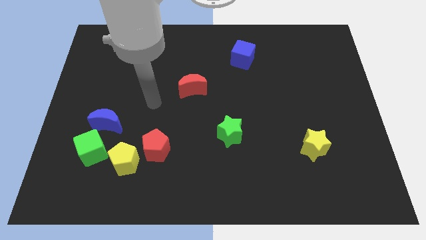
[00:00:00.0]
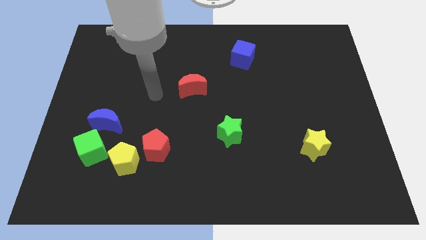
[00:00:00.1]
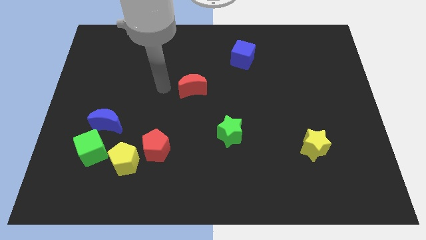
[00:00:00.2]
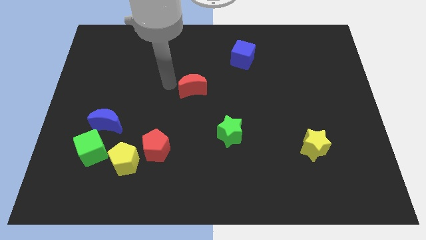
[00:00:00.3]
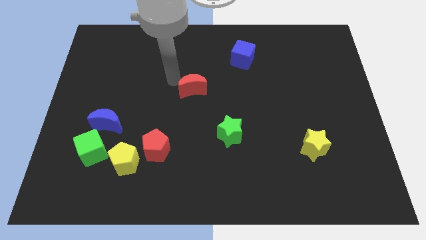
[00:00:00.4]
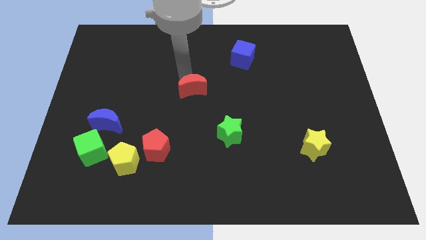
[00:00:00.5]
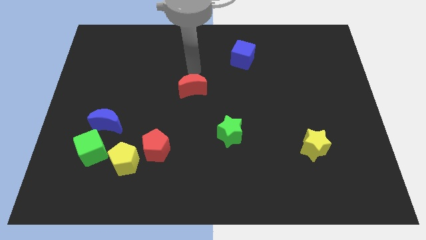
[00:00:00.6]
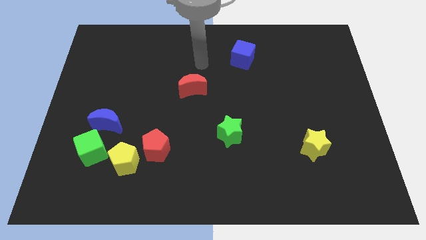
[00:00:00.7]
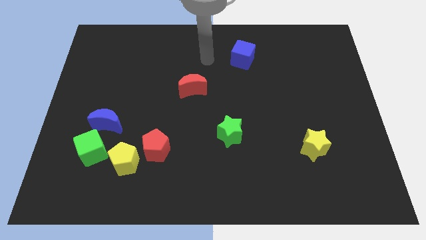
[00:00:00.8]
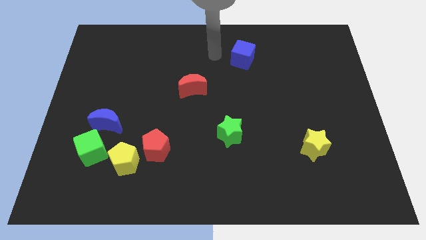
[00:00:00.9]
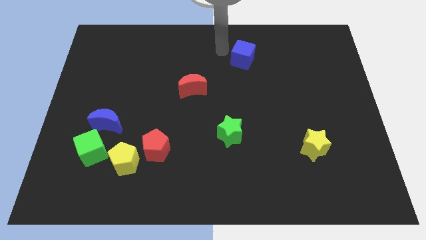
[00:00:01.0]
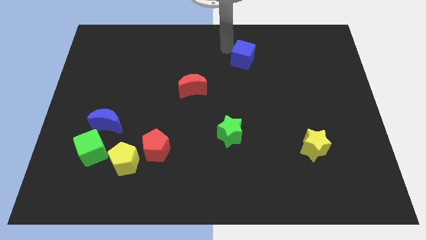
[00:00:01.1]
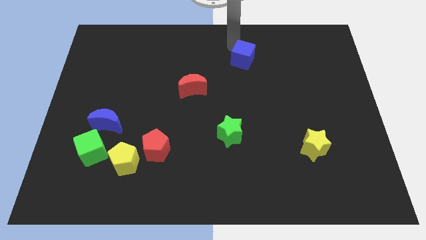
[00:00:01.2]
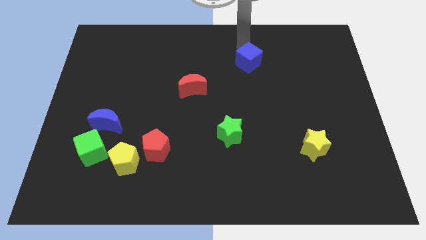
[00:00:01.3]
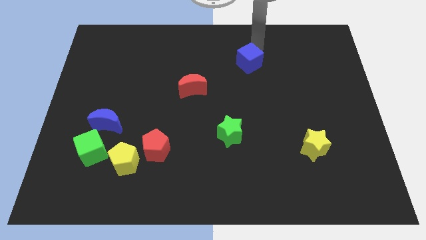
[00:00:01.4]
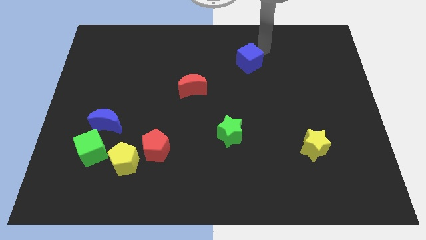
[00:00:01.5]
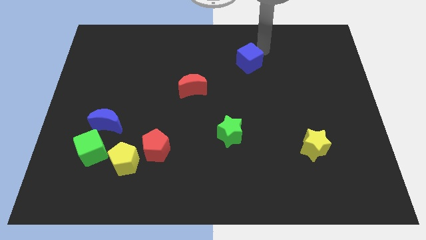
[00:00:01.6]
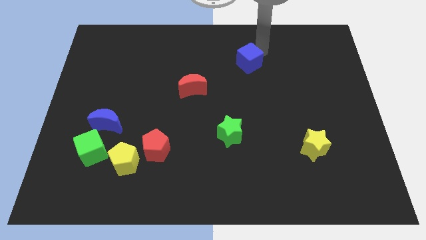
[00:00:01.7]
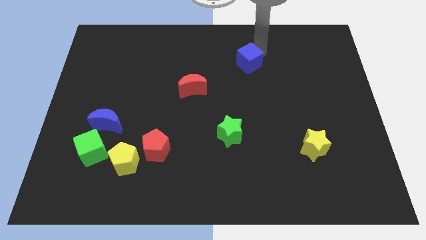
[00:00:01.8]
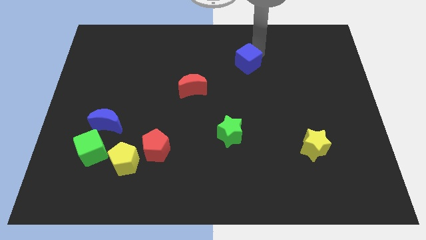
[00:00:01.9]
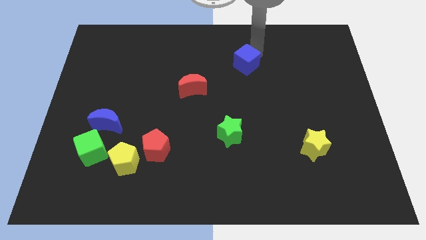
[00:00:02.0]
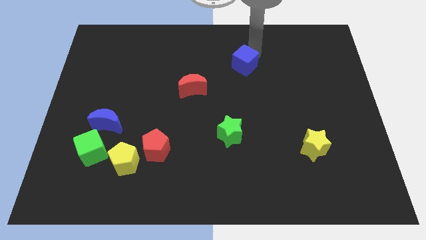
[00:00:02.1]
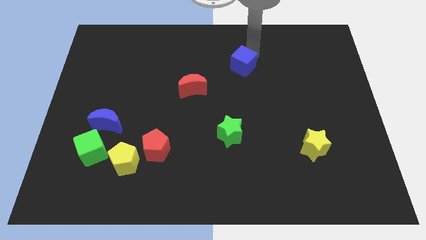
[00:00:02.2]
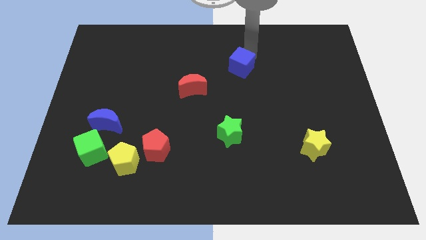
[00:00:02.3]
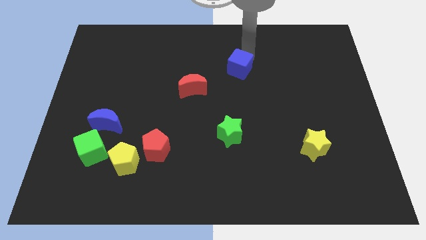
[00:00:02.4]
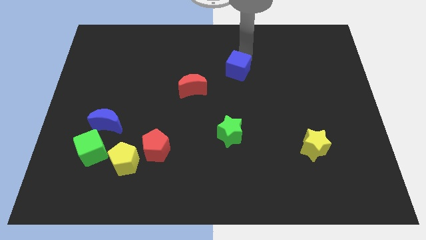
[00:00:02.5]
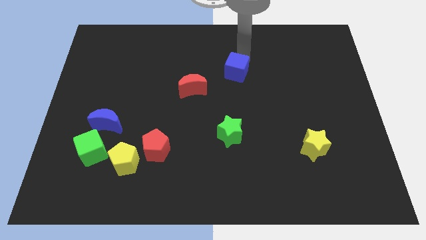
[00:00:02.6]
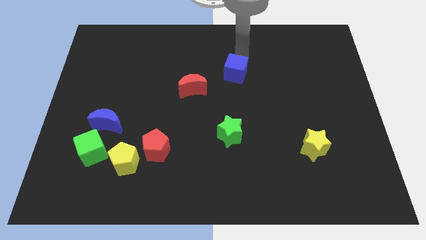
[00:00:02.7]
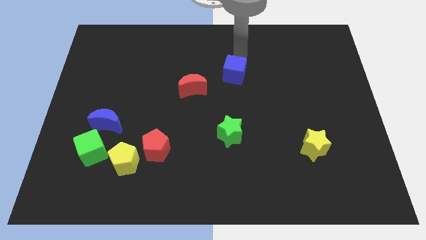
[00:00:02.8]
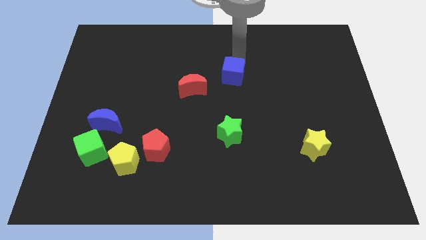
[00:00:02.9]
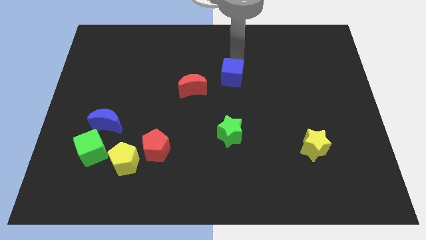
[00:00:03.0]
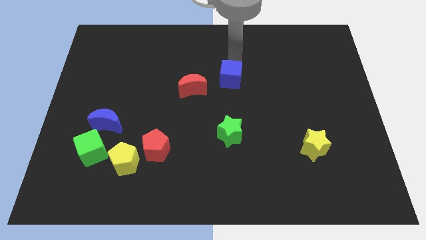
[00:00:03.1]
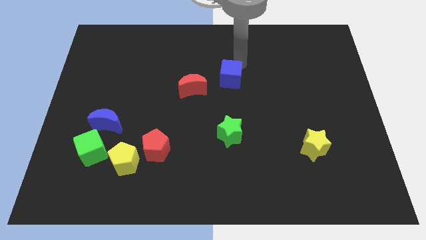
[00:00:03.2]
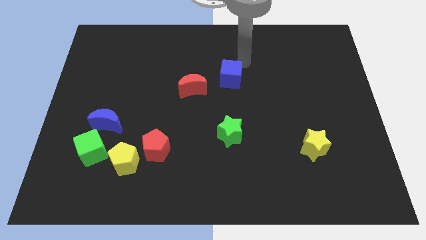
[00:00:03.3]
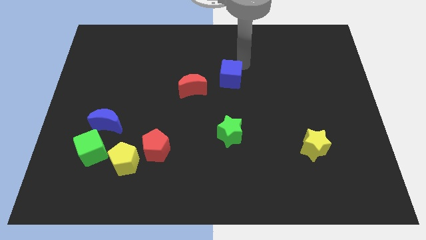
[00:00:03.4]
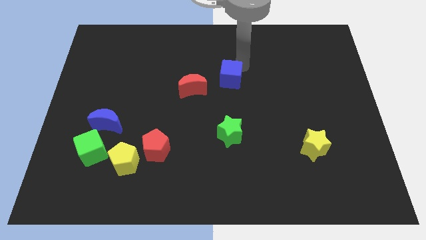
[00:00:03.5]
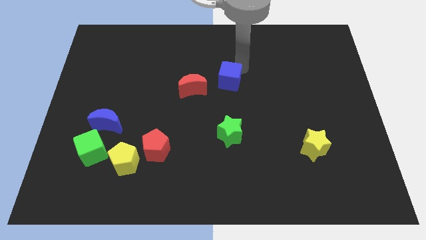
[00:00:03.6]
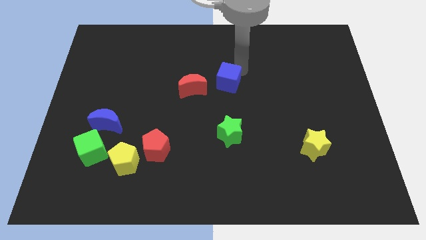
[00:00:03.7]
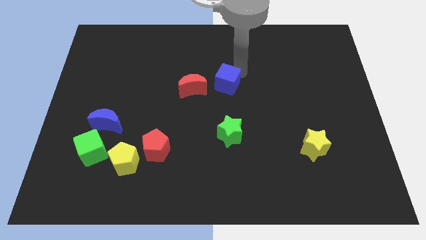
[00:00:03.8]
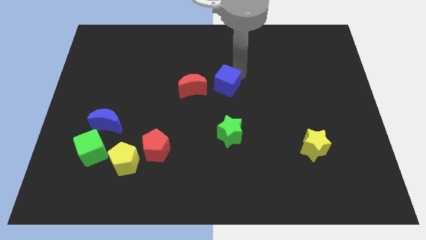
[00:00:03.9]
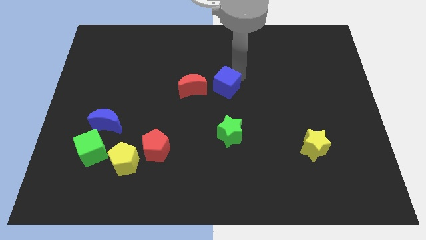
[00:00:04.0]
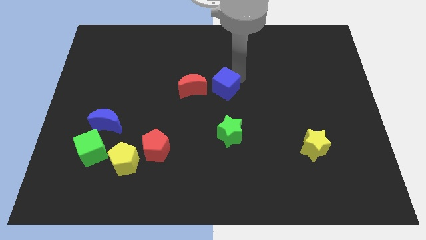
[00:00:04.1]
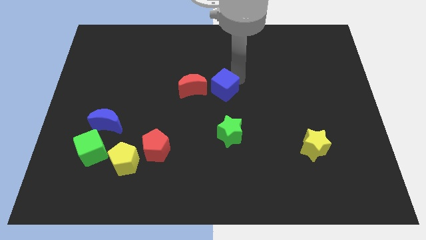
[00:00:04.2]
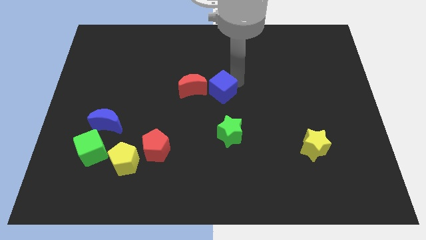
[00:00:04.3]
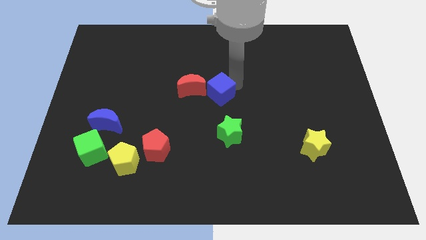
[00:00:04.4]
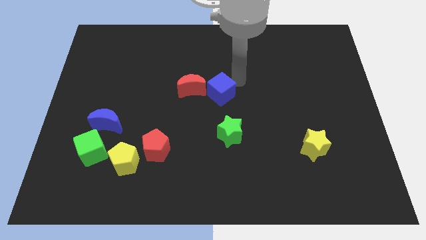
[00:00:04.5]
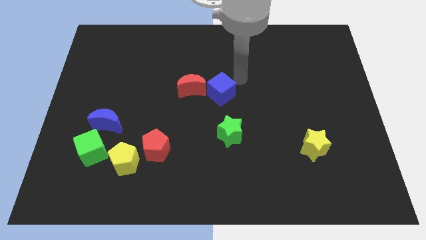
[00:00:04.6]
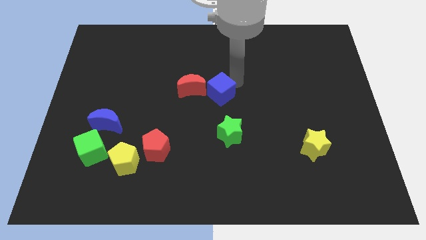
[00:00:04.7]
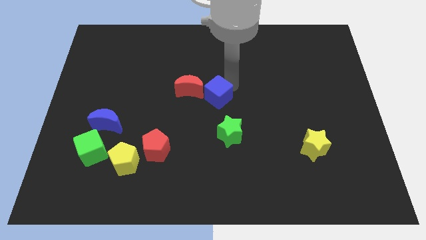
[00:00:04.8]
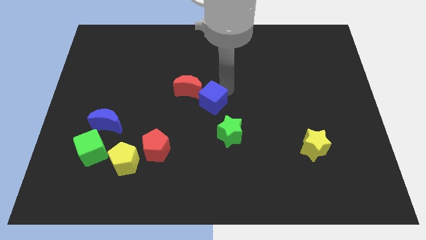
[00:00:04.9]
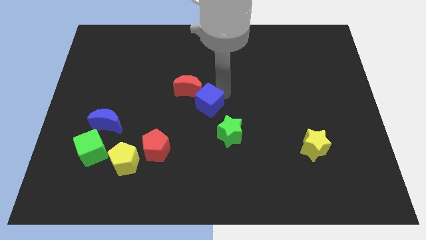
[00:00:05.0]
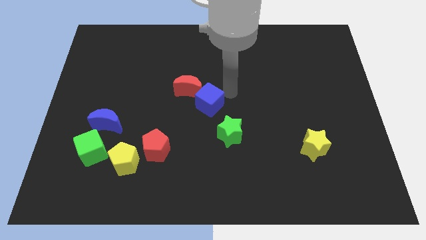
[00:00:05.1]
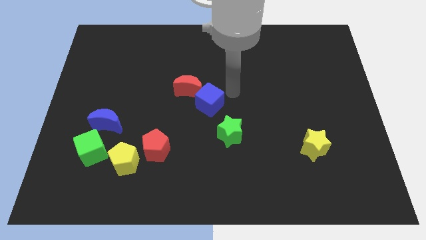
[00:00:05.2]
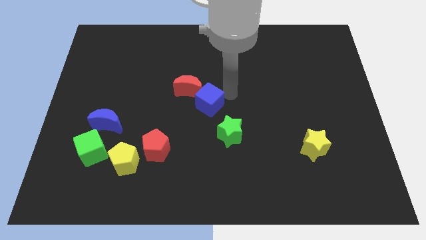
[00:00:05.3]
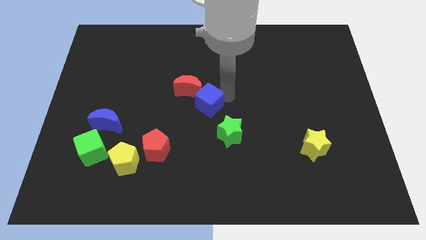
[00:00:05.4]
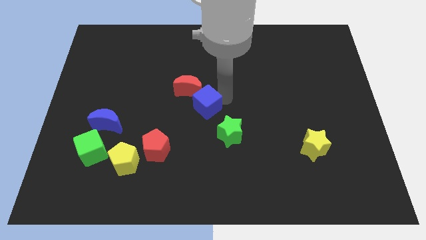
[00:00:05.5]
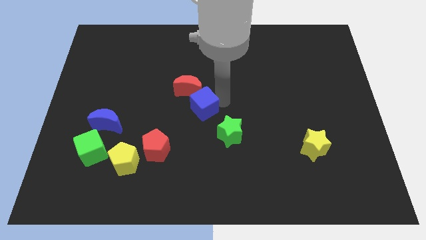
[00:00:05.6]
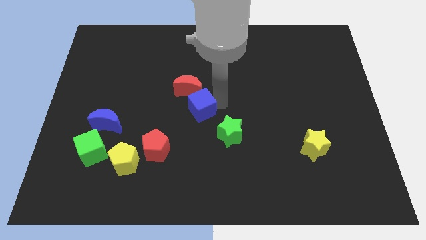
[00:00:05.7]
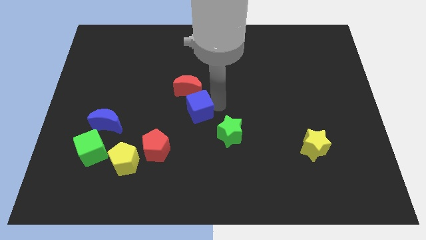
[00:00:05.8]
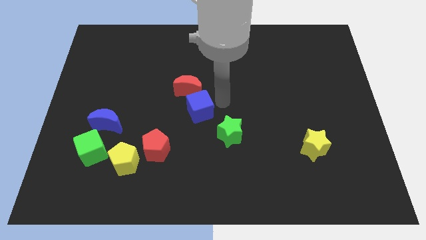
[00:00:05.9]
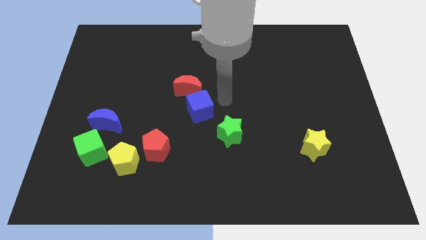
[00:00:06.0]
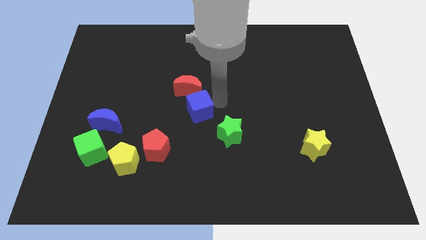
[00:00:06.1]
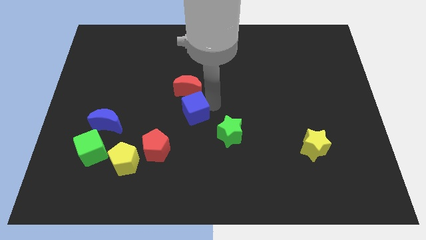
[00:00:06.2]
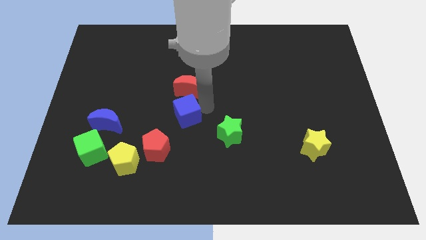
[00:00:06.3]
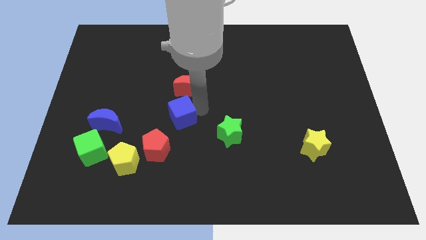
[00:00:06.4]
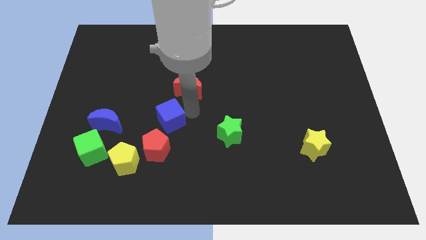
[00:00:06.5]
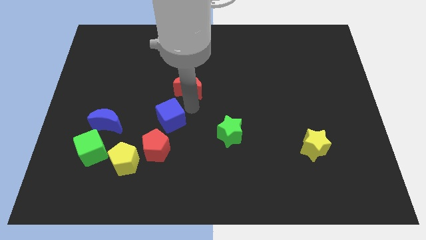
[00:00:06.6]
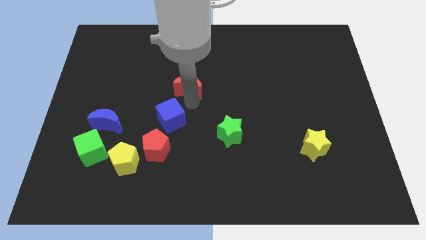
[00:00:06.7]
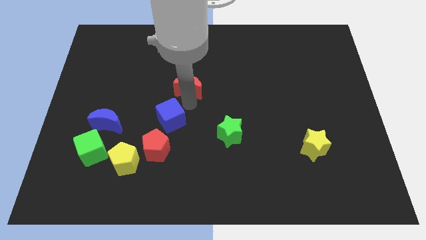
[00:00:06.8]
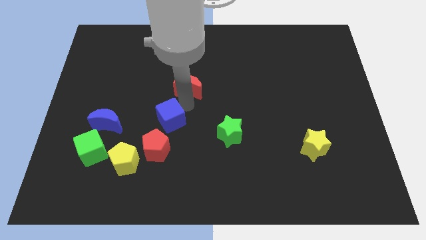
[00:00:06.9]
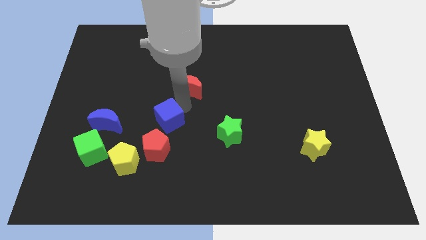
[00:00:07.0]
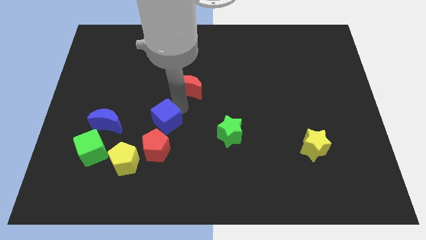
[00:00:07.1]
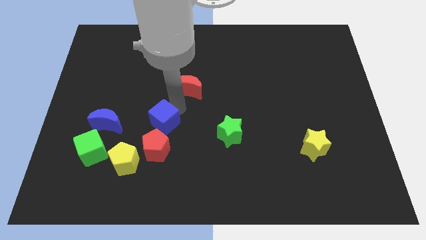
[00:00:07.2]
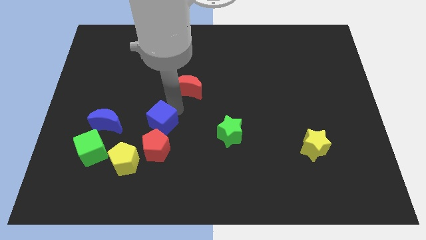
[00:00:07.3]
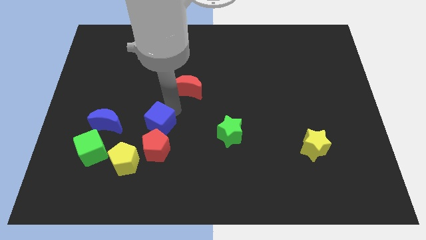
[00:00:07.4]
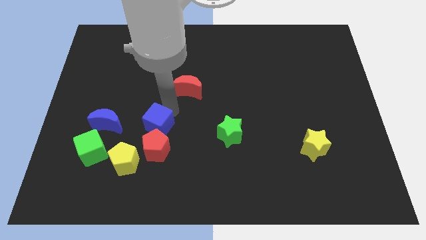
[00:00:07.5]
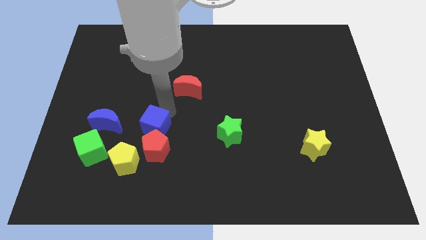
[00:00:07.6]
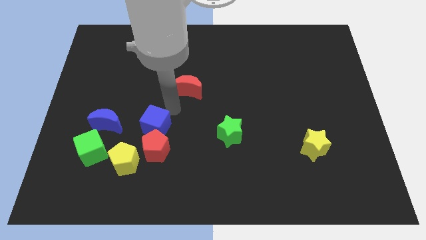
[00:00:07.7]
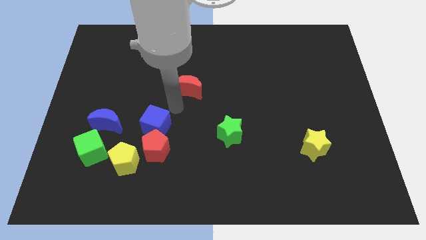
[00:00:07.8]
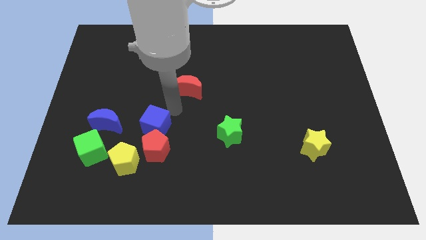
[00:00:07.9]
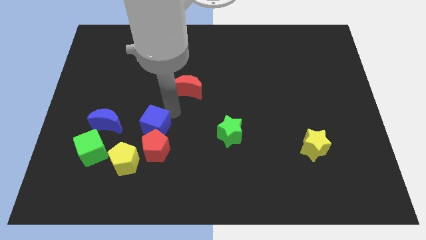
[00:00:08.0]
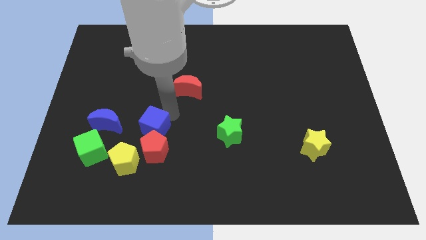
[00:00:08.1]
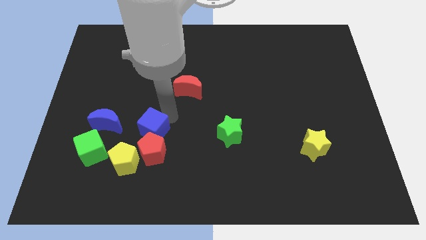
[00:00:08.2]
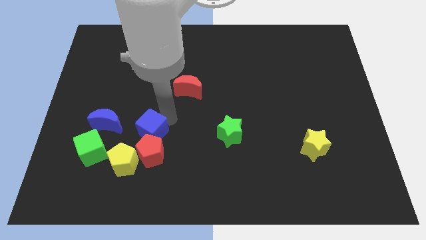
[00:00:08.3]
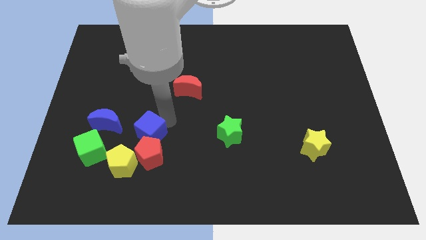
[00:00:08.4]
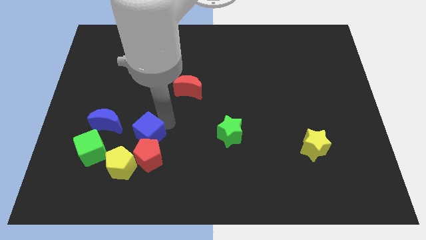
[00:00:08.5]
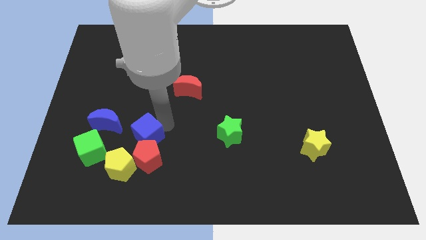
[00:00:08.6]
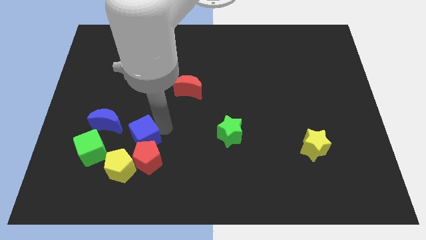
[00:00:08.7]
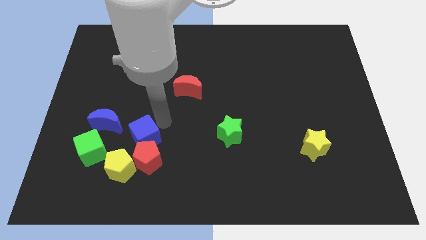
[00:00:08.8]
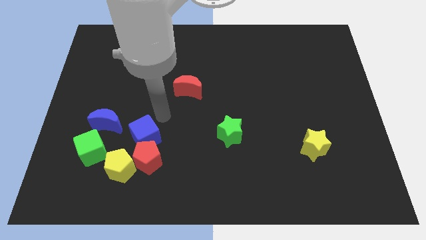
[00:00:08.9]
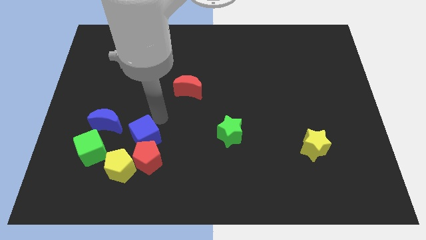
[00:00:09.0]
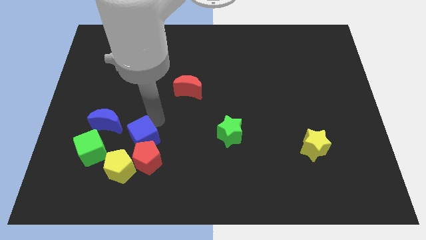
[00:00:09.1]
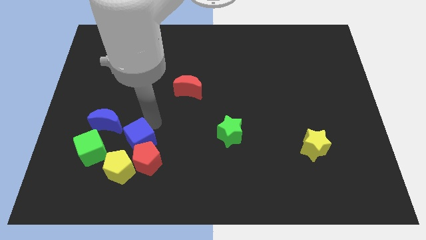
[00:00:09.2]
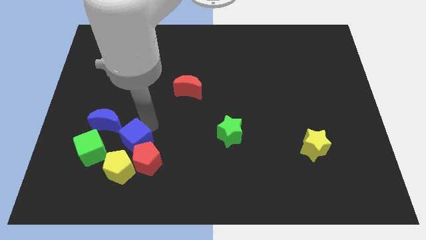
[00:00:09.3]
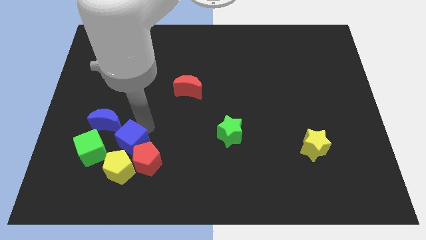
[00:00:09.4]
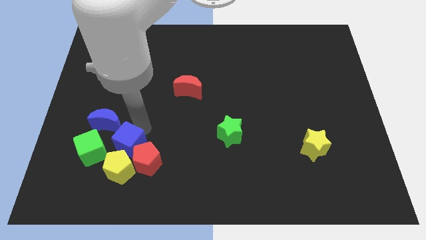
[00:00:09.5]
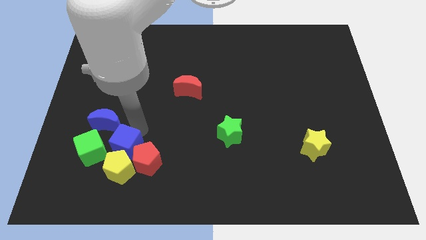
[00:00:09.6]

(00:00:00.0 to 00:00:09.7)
move the blue cube towards the yellow pentagon
